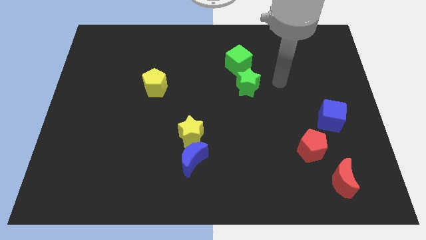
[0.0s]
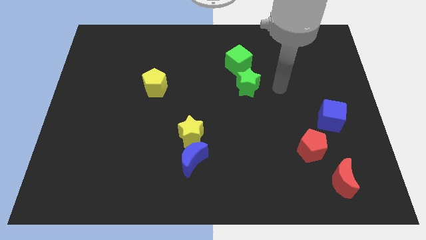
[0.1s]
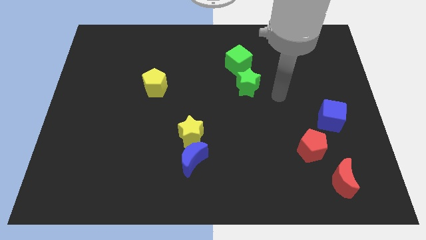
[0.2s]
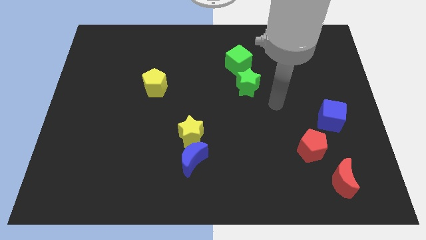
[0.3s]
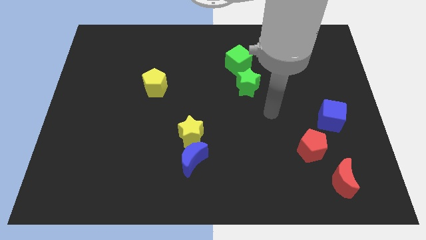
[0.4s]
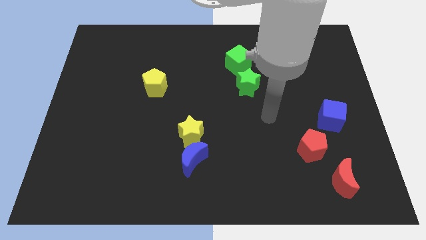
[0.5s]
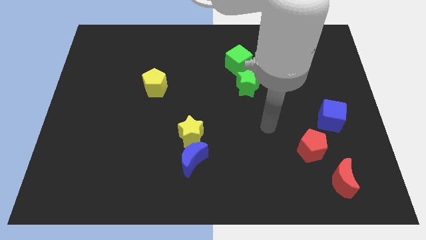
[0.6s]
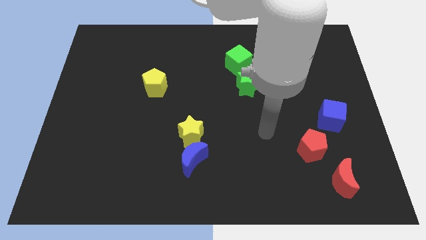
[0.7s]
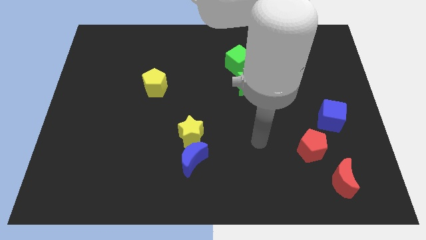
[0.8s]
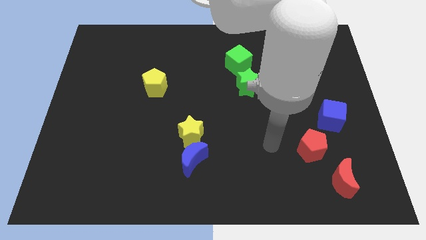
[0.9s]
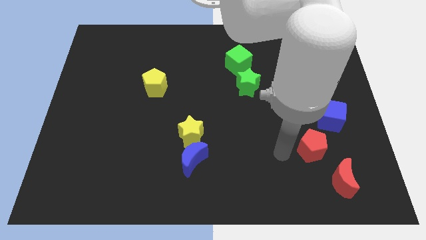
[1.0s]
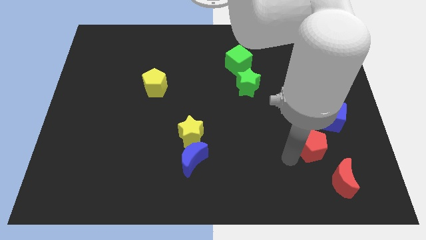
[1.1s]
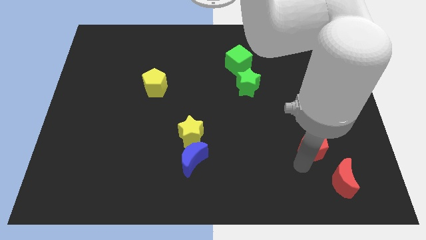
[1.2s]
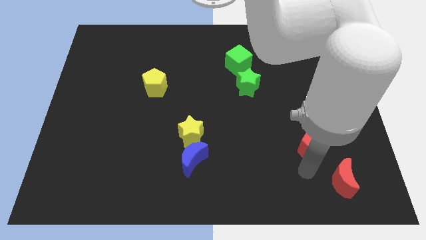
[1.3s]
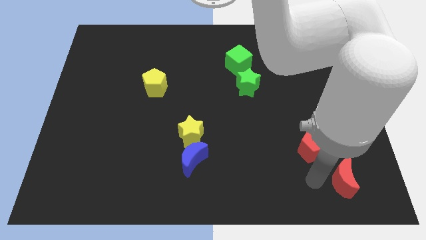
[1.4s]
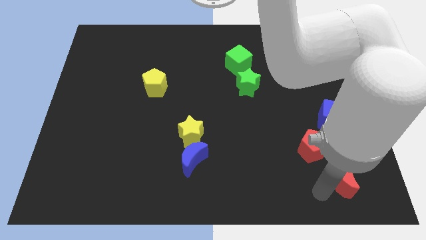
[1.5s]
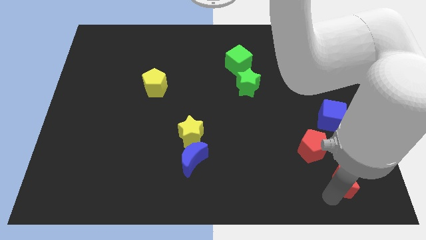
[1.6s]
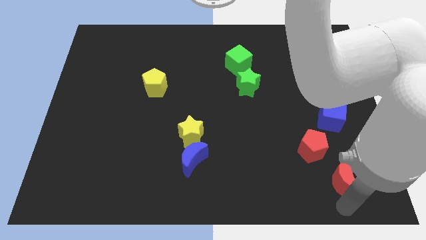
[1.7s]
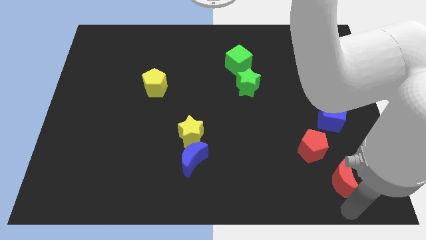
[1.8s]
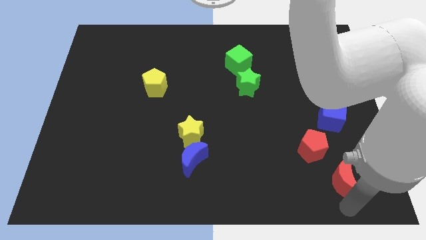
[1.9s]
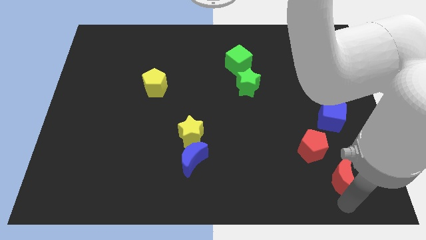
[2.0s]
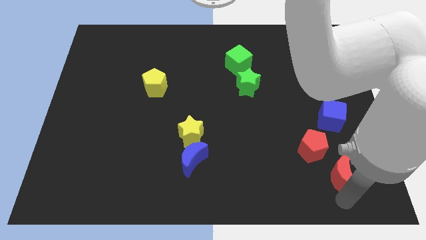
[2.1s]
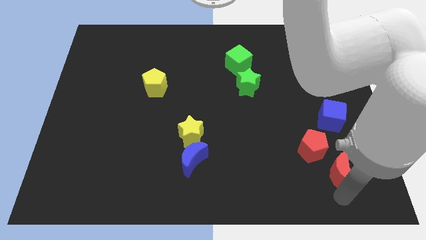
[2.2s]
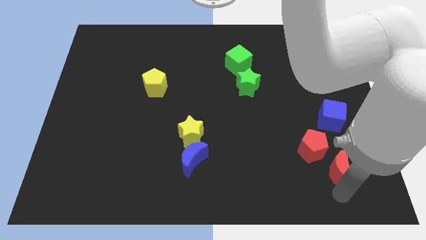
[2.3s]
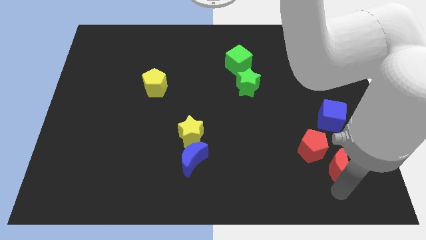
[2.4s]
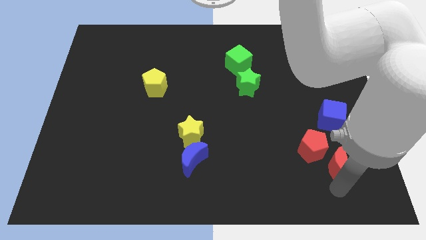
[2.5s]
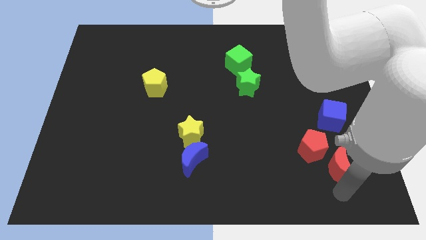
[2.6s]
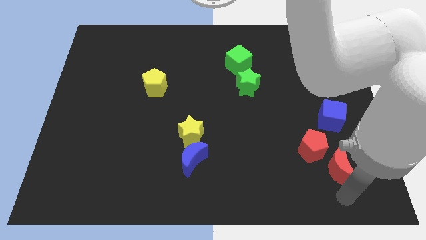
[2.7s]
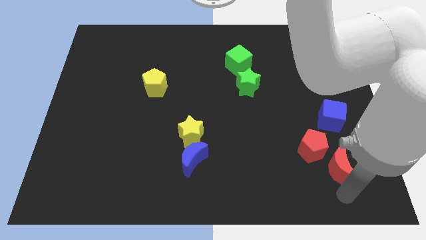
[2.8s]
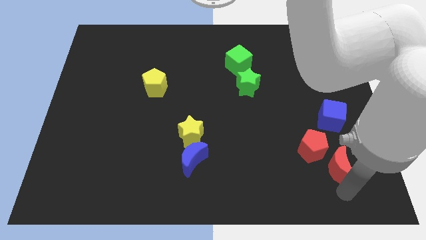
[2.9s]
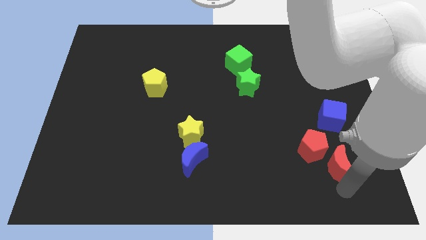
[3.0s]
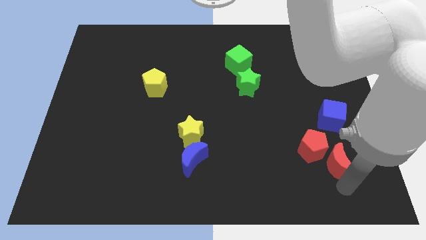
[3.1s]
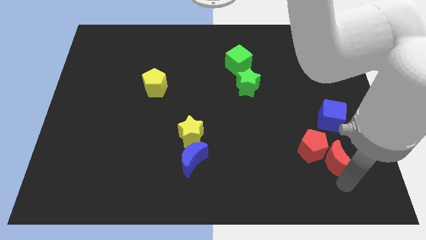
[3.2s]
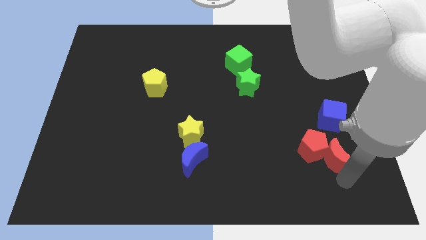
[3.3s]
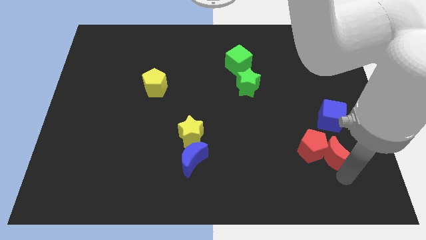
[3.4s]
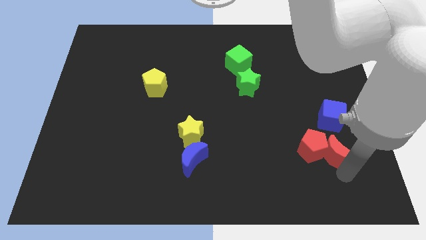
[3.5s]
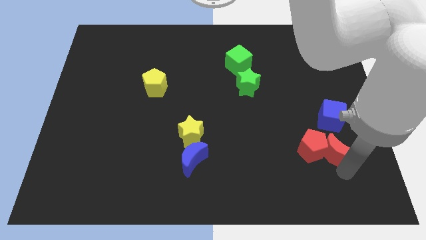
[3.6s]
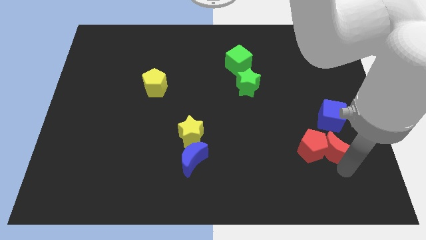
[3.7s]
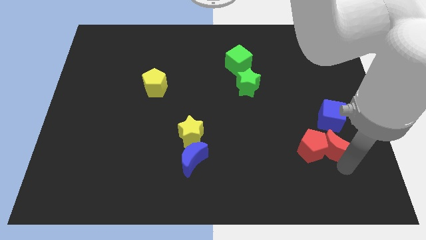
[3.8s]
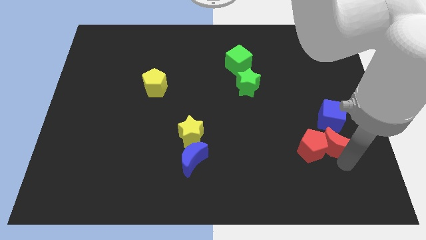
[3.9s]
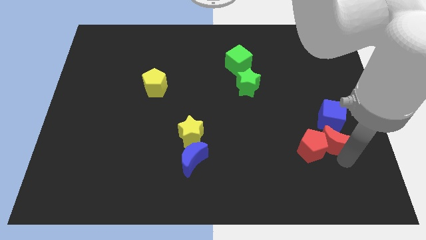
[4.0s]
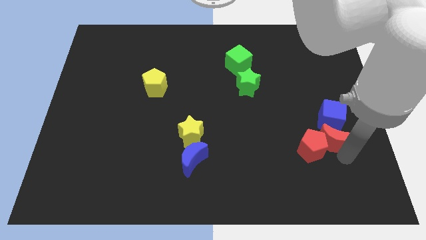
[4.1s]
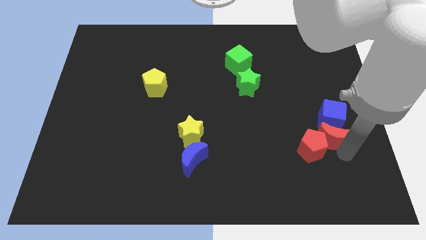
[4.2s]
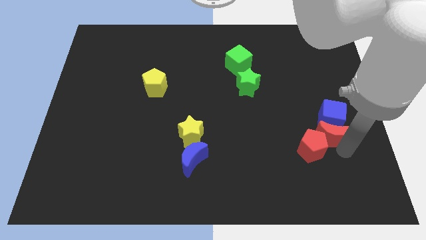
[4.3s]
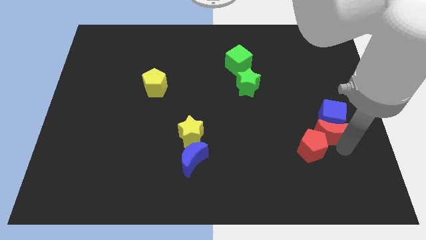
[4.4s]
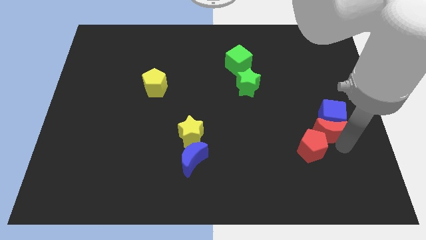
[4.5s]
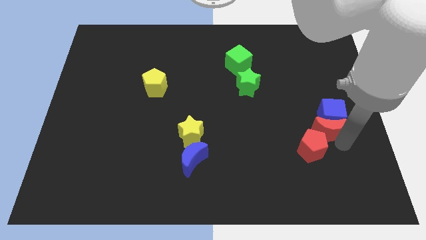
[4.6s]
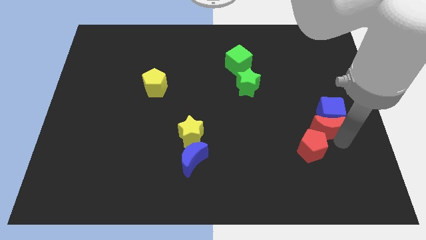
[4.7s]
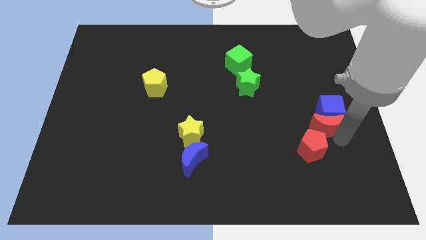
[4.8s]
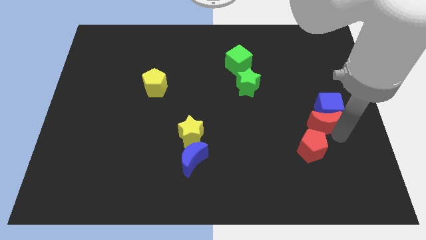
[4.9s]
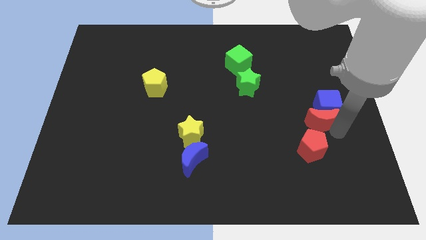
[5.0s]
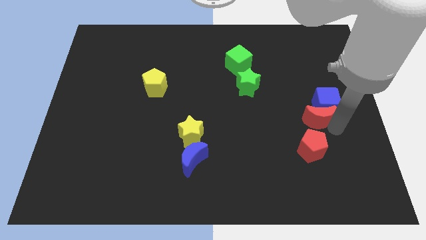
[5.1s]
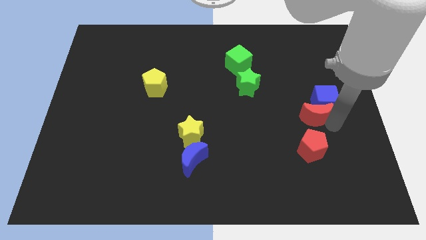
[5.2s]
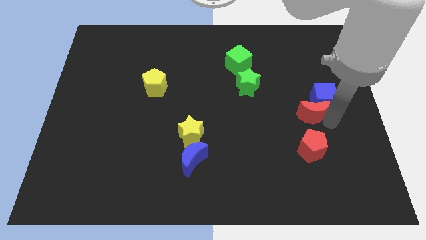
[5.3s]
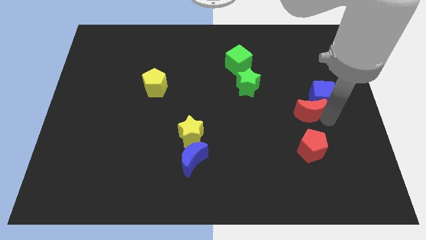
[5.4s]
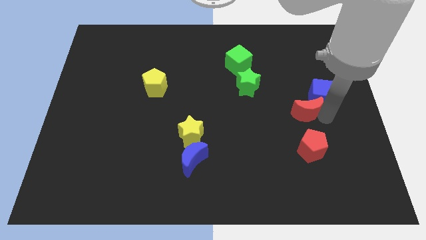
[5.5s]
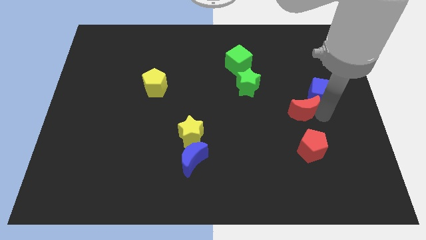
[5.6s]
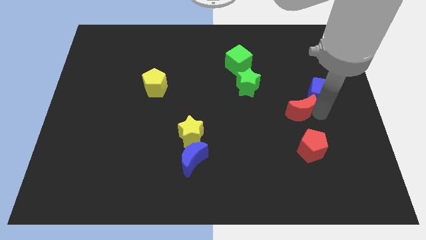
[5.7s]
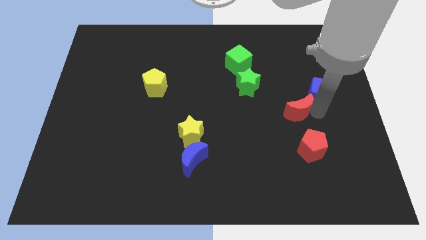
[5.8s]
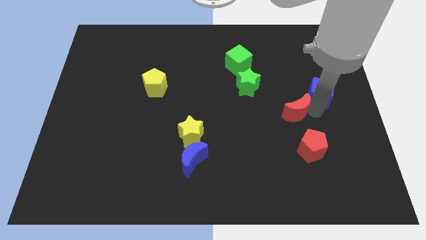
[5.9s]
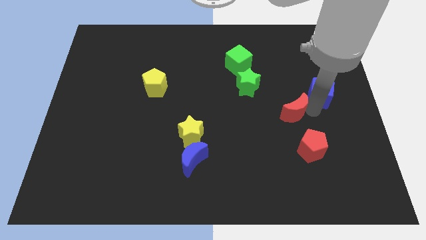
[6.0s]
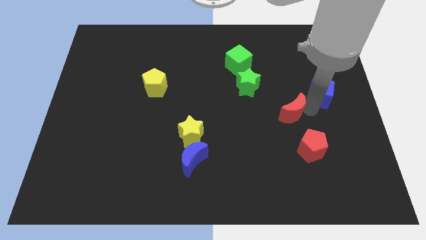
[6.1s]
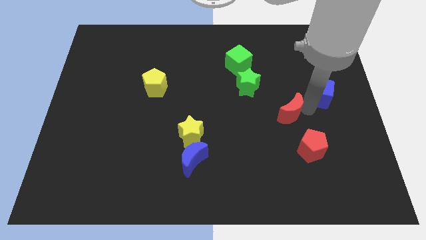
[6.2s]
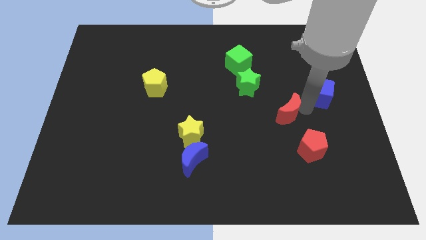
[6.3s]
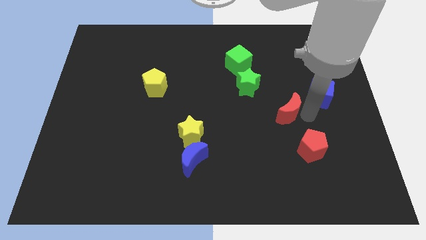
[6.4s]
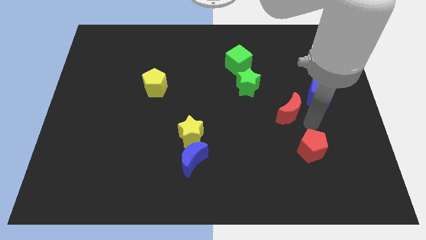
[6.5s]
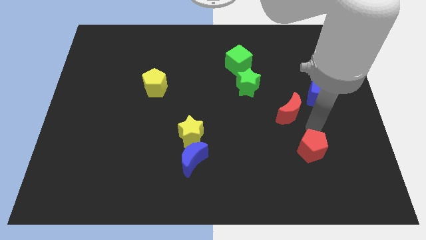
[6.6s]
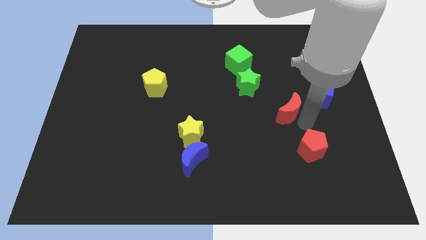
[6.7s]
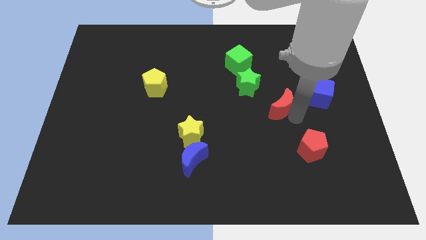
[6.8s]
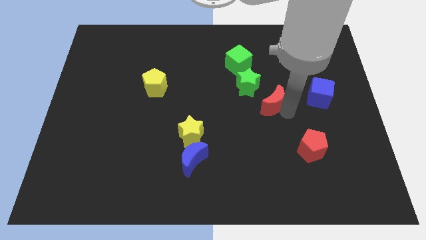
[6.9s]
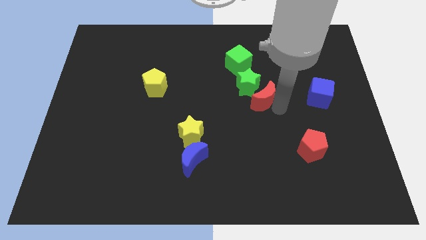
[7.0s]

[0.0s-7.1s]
move the red moon towards the green star
